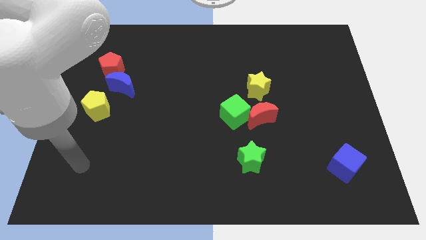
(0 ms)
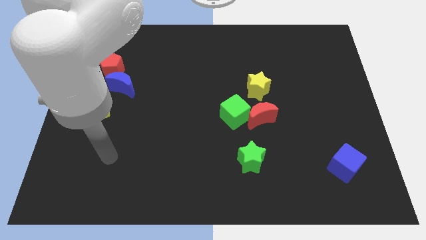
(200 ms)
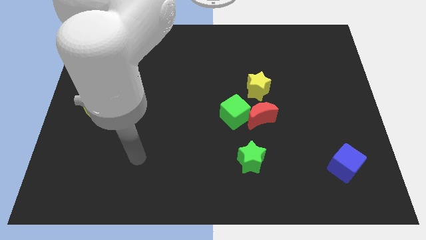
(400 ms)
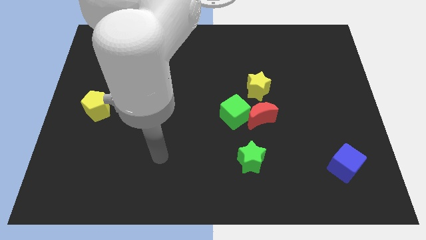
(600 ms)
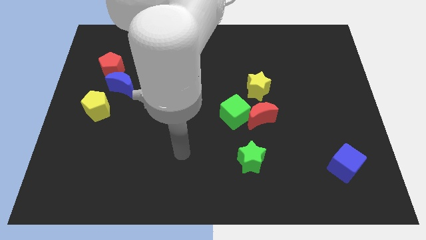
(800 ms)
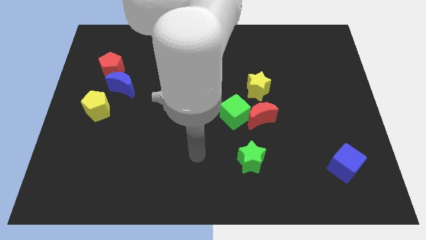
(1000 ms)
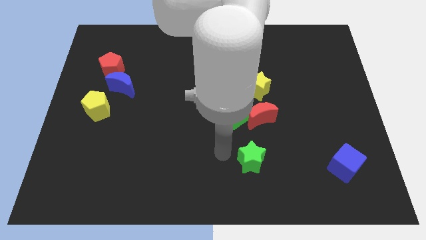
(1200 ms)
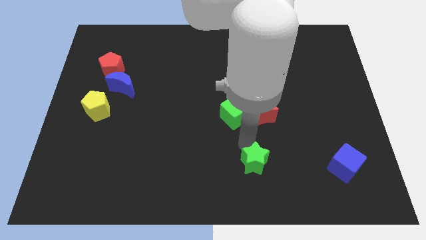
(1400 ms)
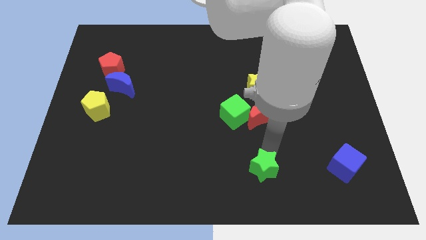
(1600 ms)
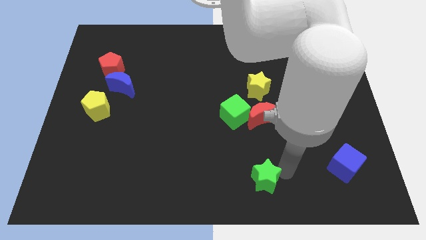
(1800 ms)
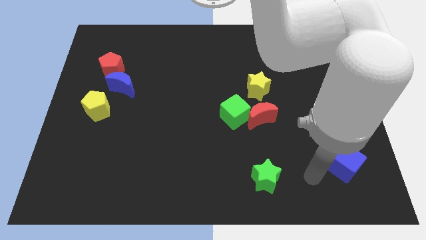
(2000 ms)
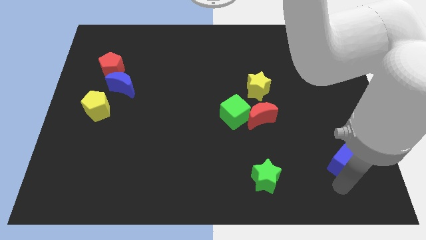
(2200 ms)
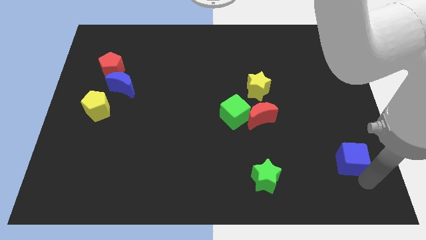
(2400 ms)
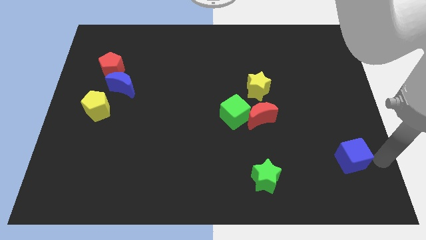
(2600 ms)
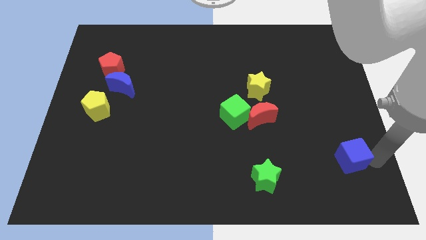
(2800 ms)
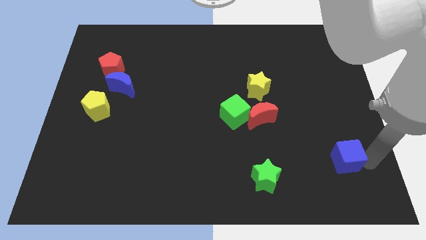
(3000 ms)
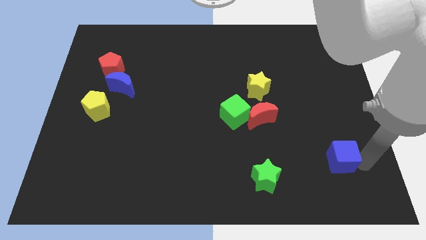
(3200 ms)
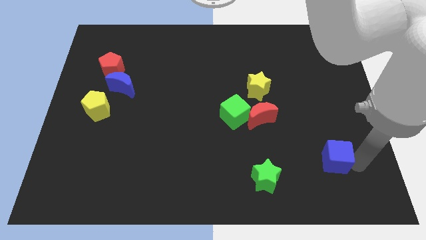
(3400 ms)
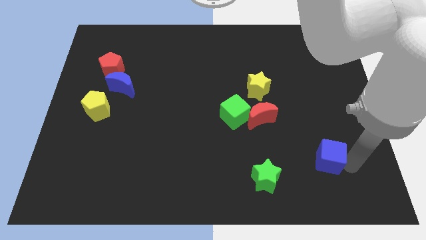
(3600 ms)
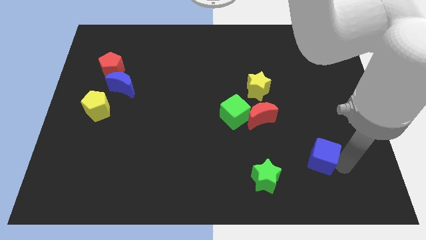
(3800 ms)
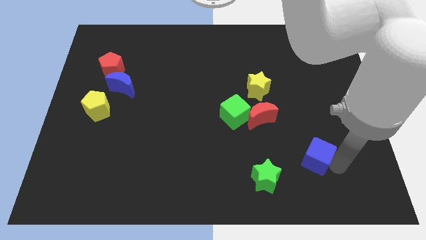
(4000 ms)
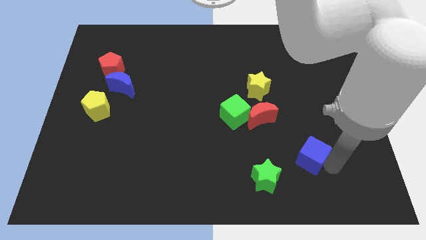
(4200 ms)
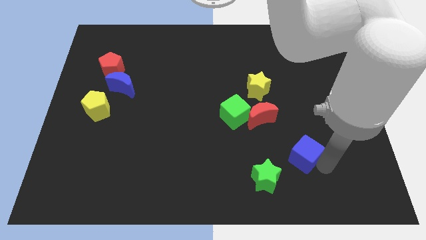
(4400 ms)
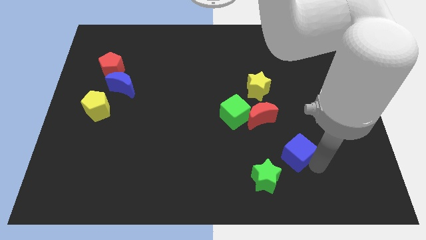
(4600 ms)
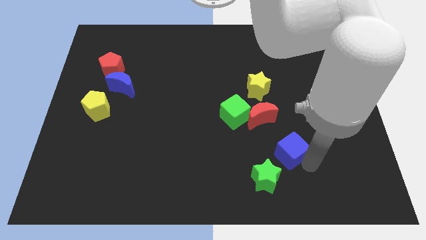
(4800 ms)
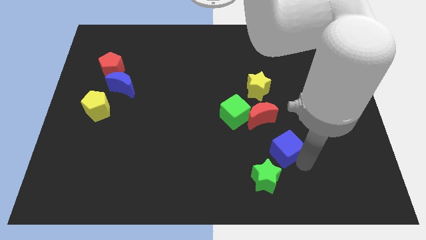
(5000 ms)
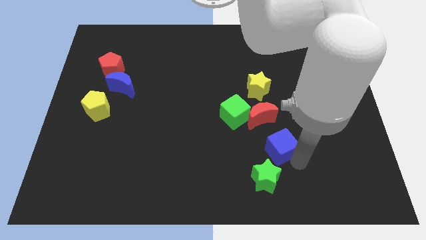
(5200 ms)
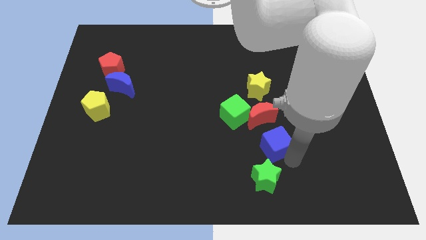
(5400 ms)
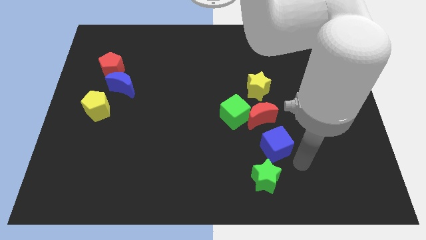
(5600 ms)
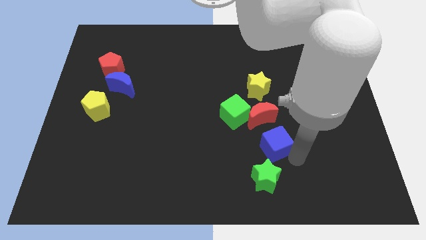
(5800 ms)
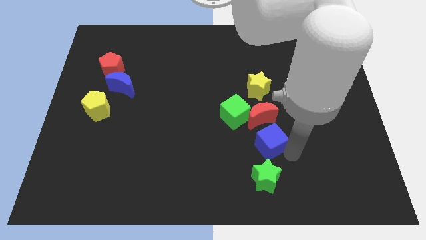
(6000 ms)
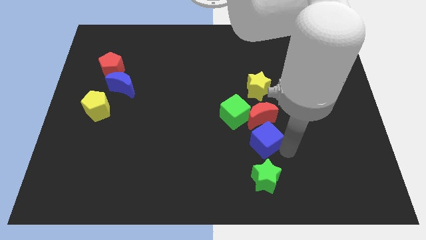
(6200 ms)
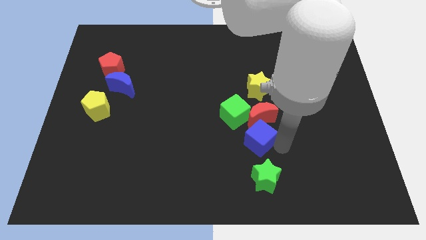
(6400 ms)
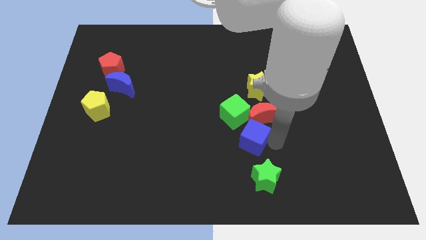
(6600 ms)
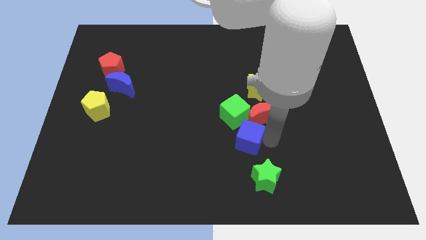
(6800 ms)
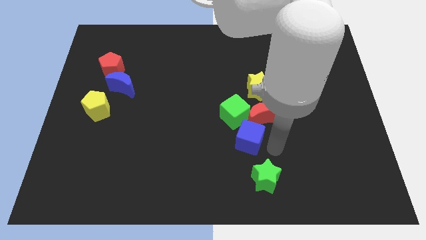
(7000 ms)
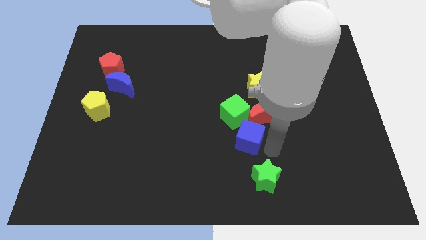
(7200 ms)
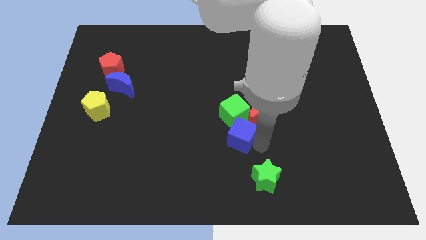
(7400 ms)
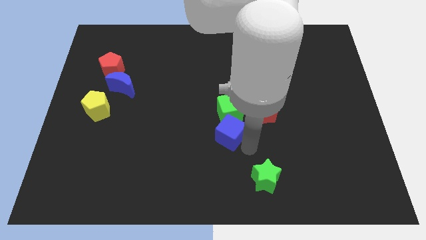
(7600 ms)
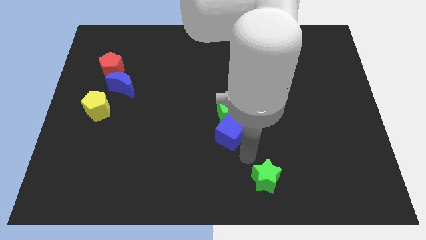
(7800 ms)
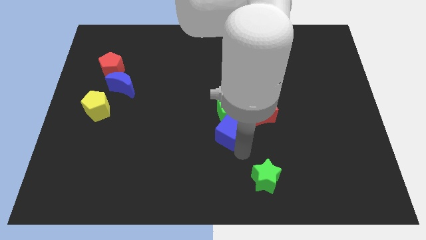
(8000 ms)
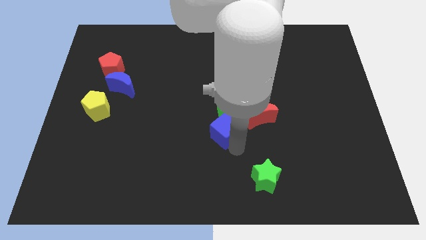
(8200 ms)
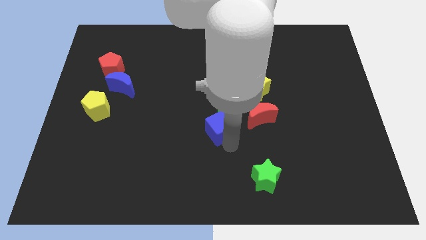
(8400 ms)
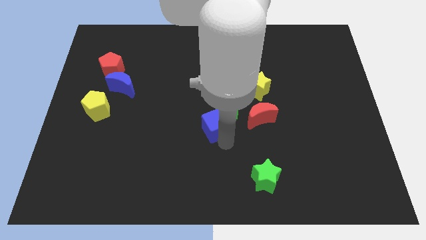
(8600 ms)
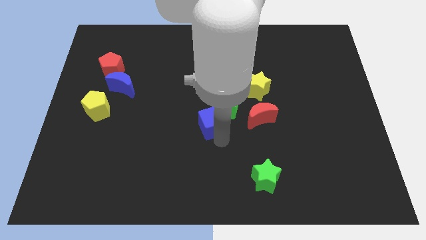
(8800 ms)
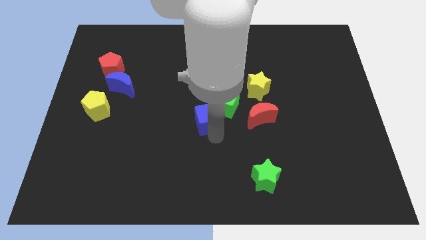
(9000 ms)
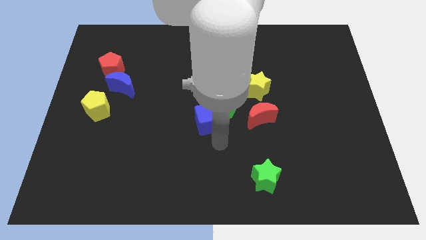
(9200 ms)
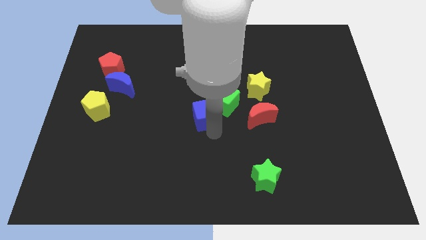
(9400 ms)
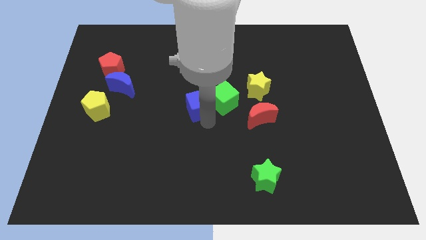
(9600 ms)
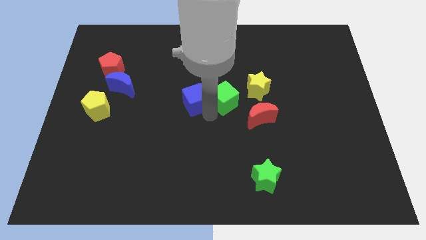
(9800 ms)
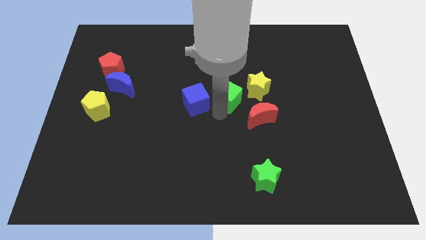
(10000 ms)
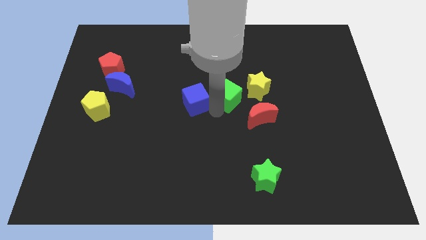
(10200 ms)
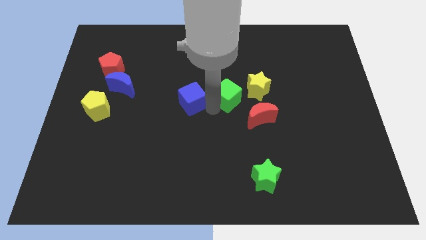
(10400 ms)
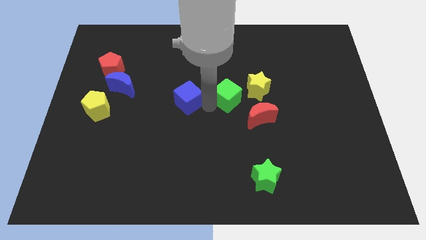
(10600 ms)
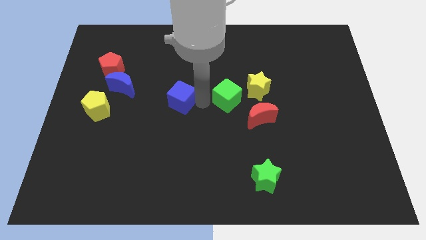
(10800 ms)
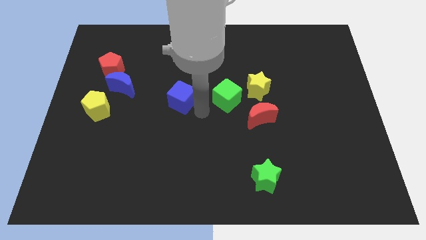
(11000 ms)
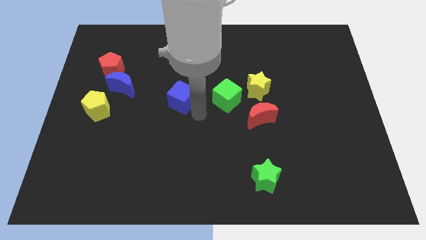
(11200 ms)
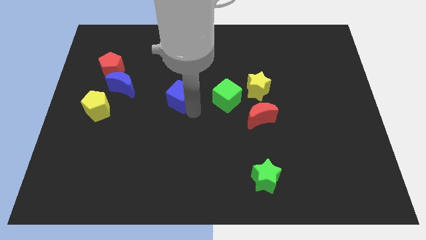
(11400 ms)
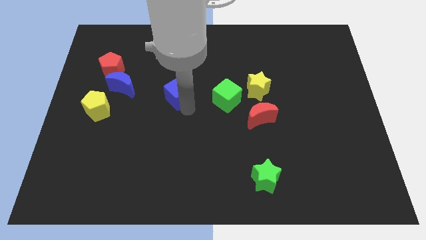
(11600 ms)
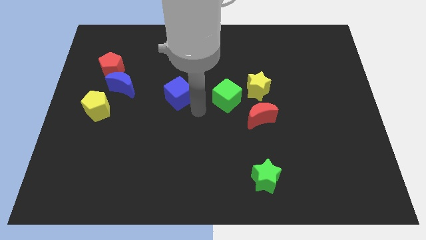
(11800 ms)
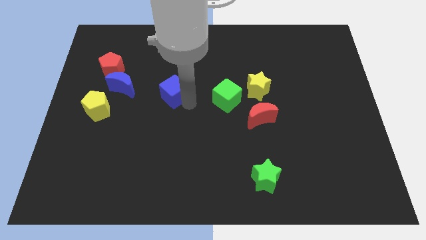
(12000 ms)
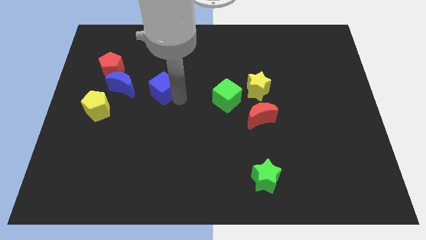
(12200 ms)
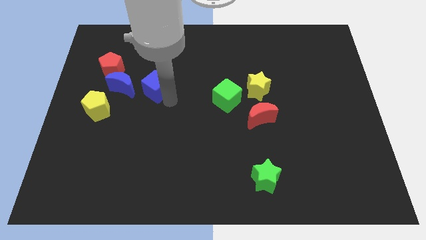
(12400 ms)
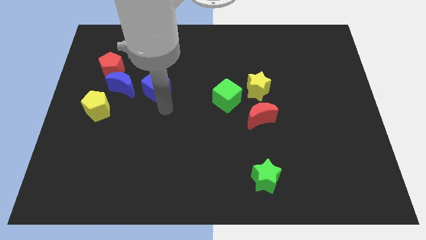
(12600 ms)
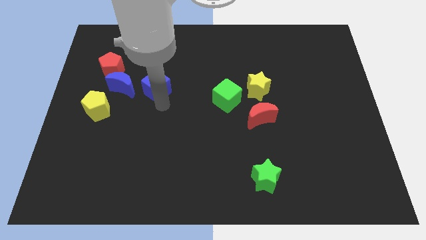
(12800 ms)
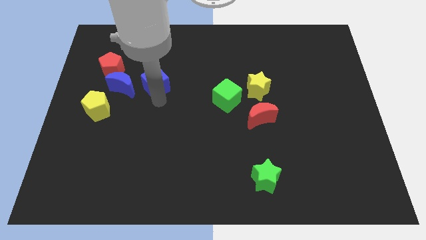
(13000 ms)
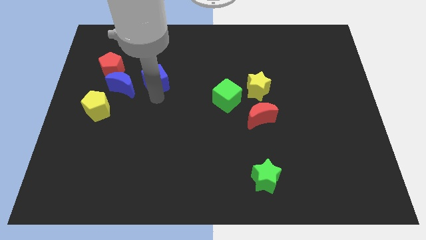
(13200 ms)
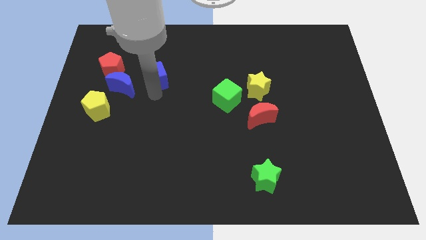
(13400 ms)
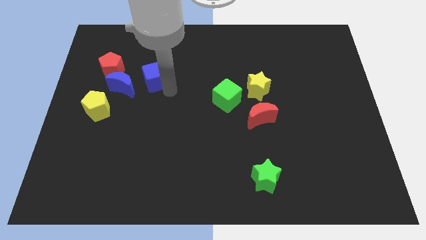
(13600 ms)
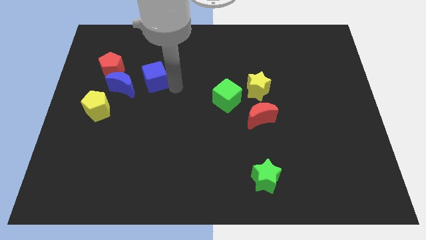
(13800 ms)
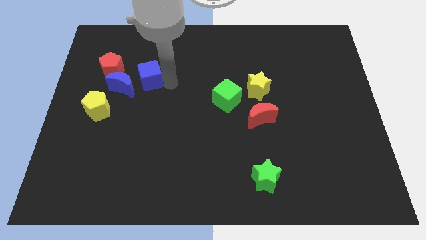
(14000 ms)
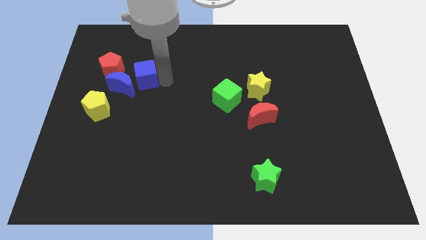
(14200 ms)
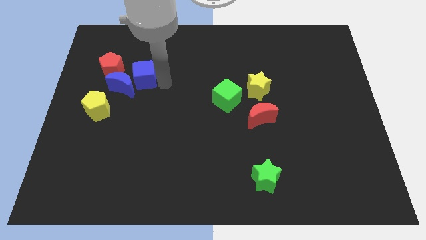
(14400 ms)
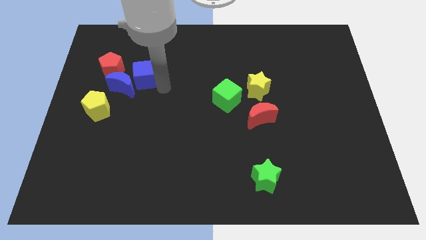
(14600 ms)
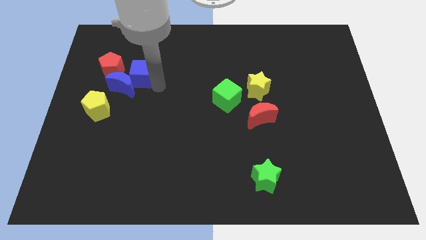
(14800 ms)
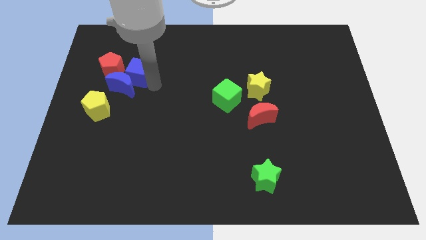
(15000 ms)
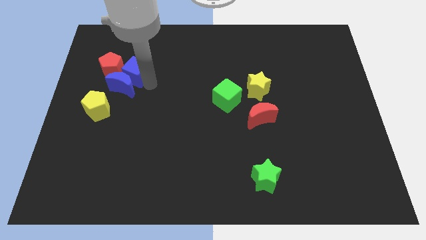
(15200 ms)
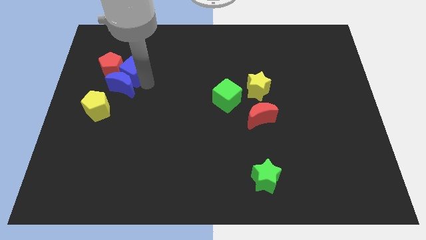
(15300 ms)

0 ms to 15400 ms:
slide the blue cube next to the red pentagon
